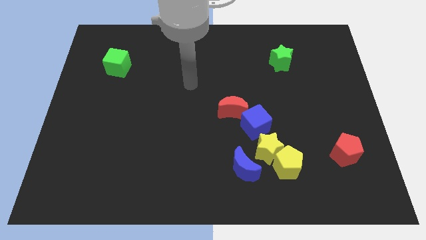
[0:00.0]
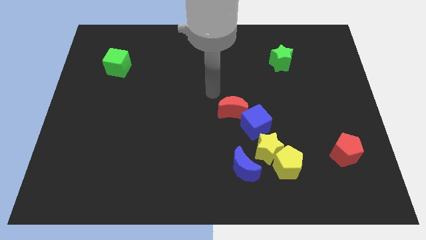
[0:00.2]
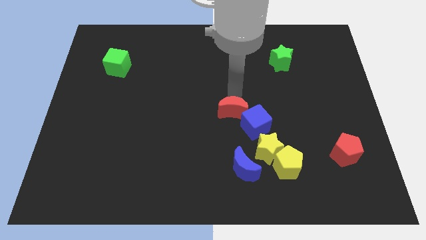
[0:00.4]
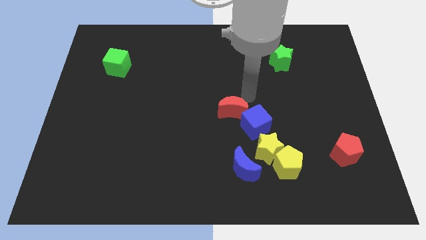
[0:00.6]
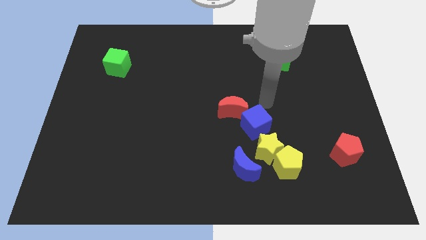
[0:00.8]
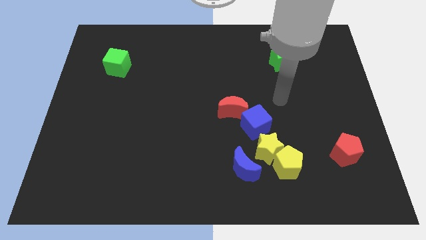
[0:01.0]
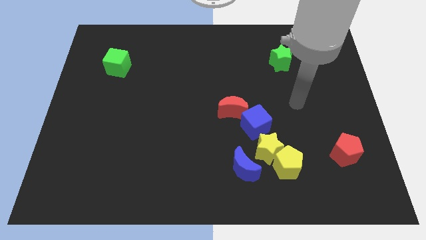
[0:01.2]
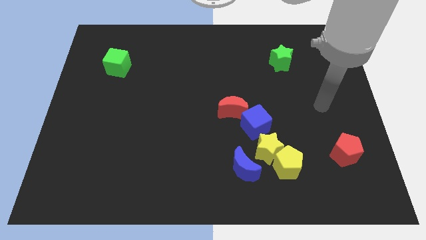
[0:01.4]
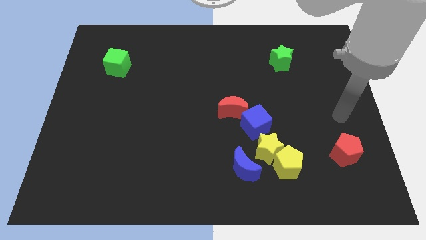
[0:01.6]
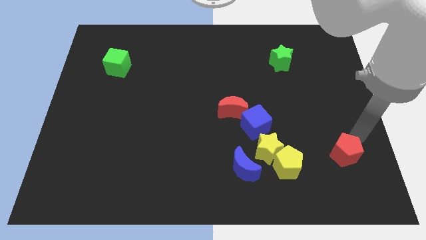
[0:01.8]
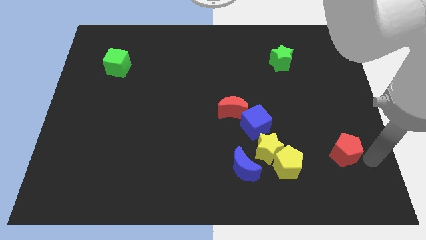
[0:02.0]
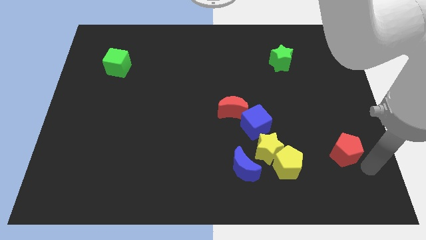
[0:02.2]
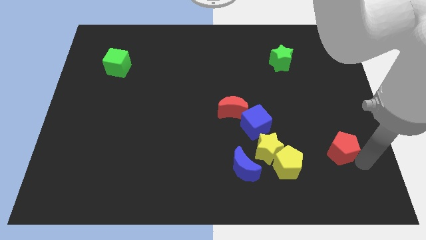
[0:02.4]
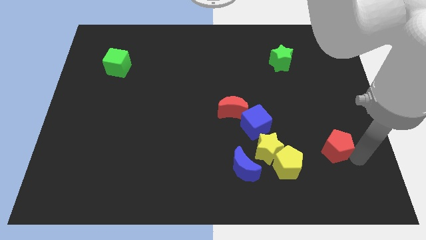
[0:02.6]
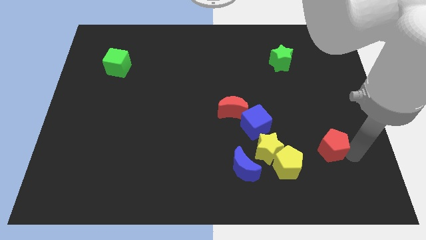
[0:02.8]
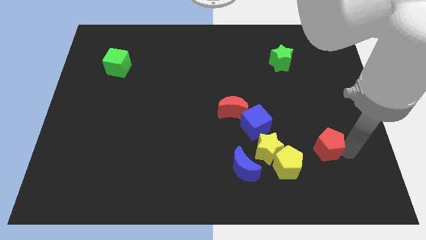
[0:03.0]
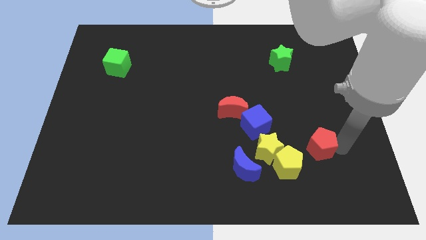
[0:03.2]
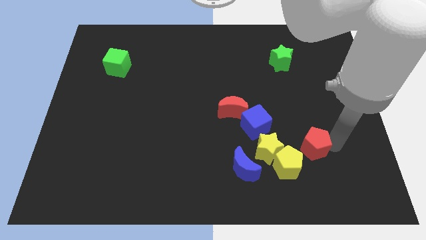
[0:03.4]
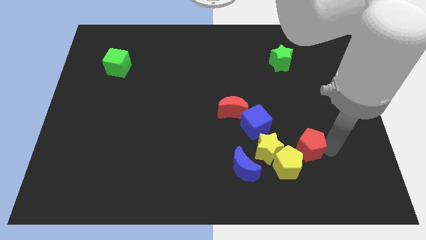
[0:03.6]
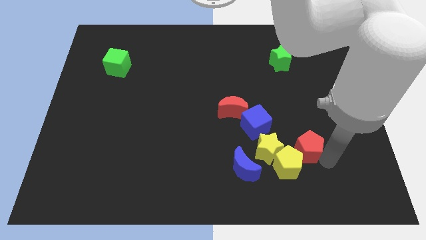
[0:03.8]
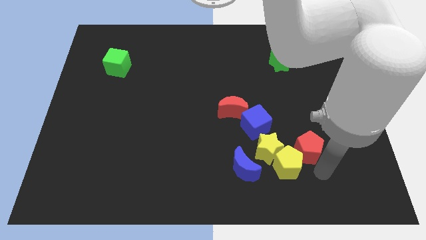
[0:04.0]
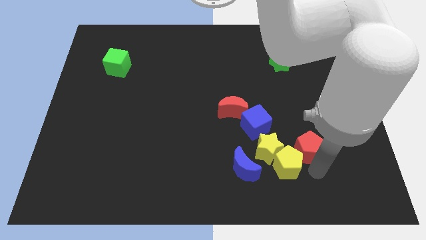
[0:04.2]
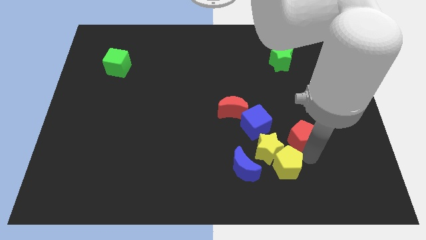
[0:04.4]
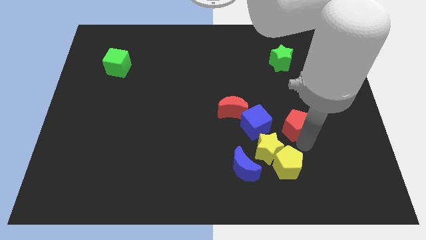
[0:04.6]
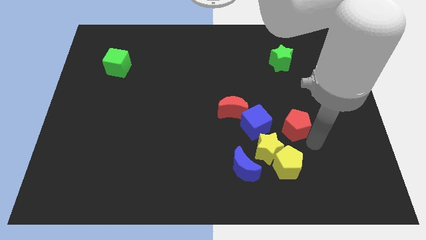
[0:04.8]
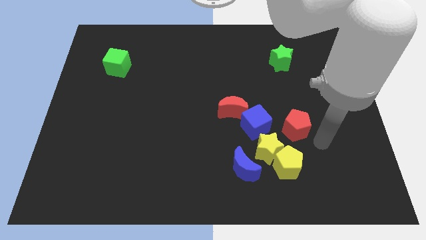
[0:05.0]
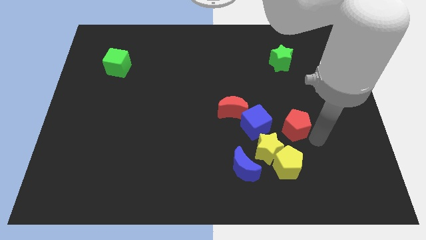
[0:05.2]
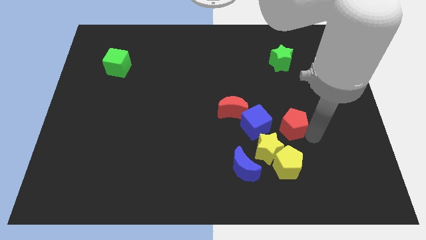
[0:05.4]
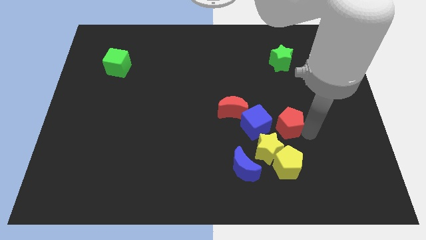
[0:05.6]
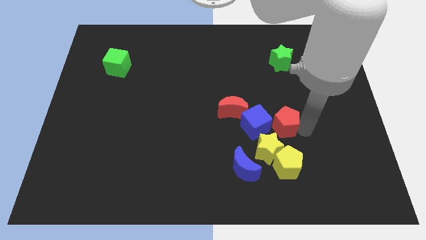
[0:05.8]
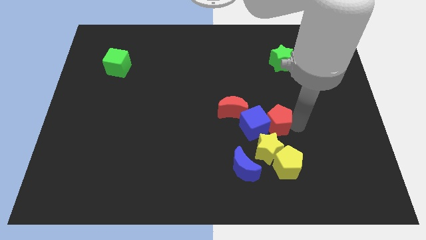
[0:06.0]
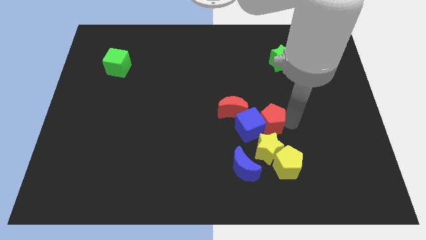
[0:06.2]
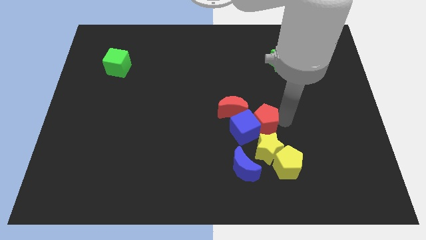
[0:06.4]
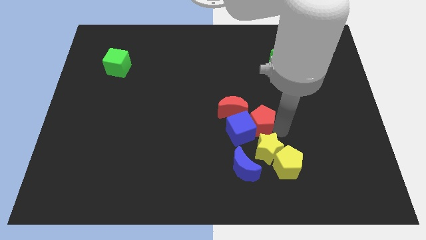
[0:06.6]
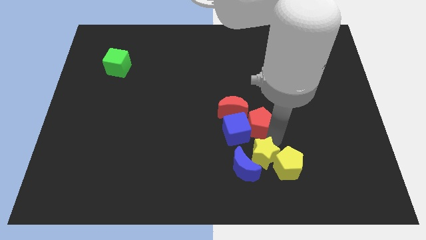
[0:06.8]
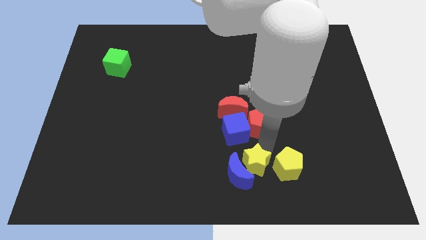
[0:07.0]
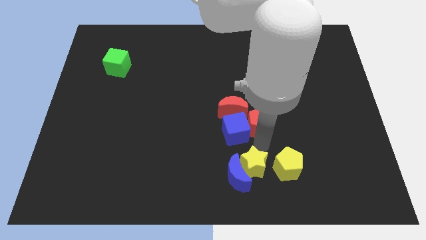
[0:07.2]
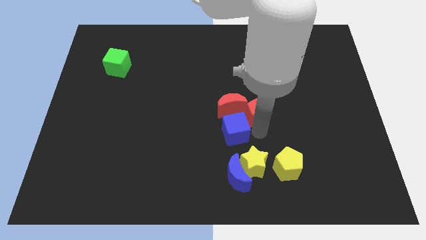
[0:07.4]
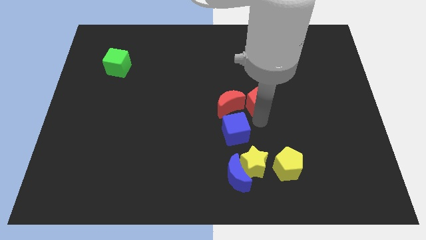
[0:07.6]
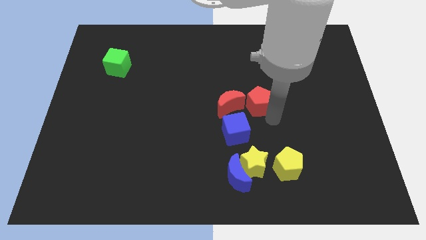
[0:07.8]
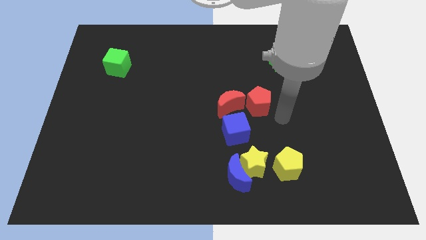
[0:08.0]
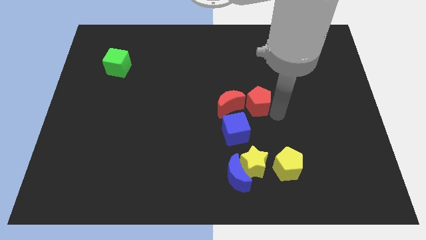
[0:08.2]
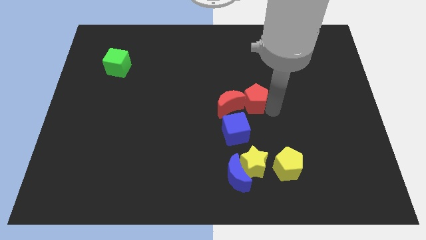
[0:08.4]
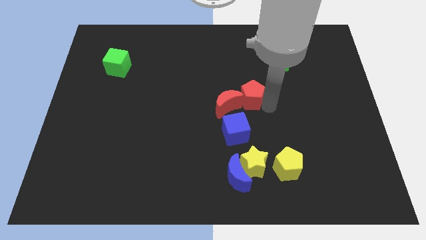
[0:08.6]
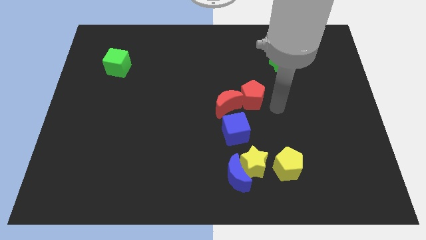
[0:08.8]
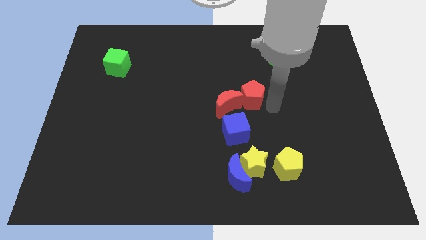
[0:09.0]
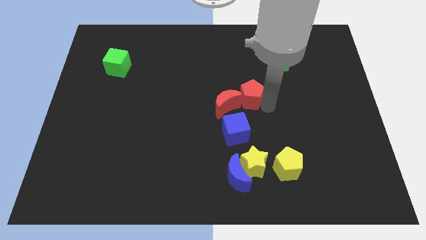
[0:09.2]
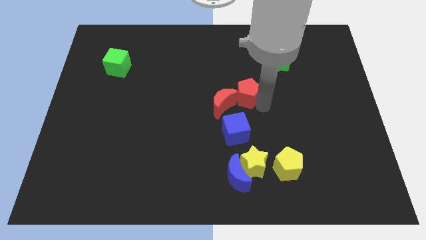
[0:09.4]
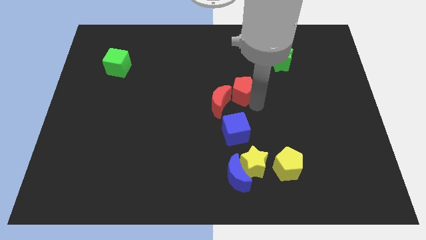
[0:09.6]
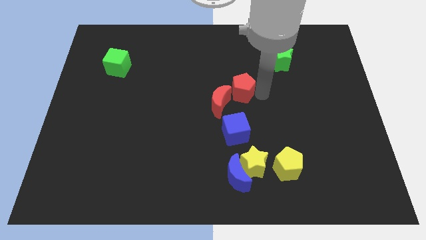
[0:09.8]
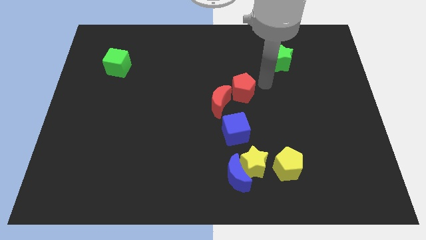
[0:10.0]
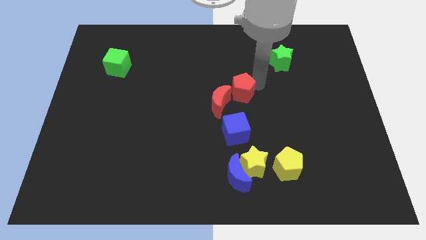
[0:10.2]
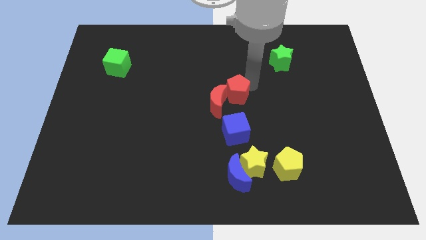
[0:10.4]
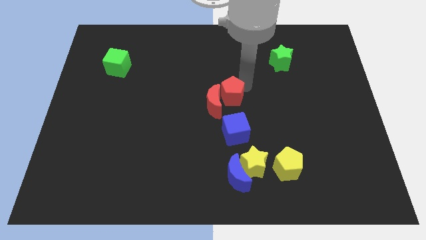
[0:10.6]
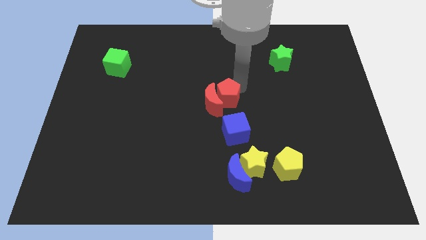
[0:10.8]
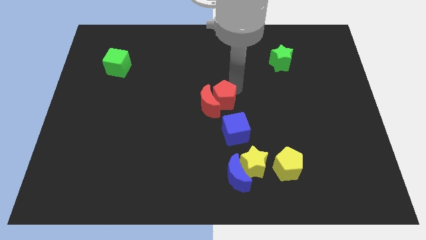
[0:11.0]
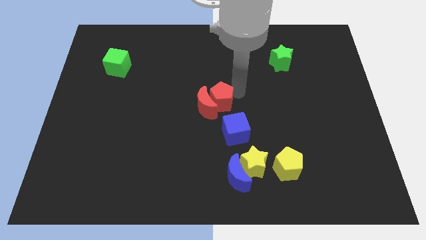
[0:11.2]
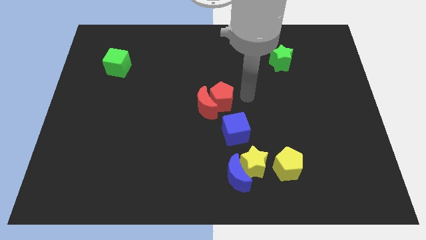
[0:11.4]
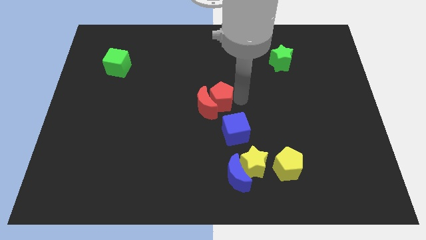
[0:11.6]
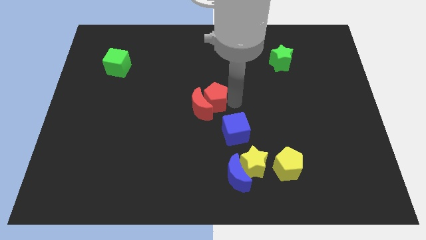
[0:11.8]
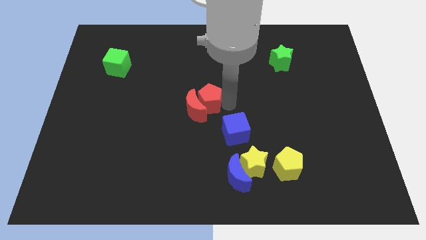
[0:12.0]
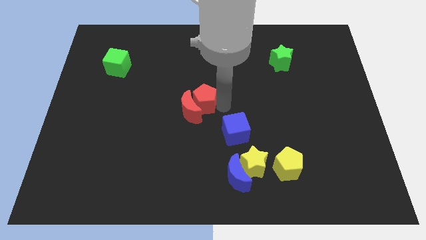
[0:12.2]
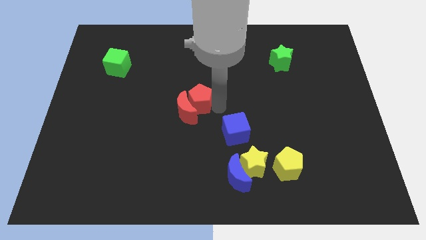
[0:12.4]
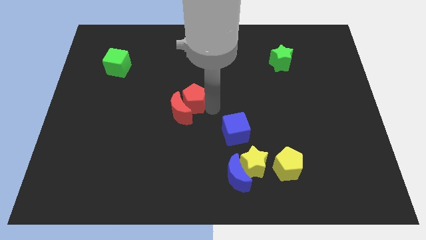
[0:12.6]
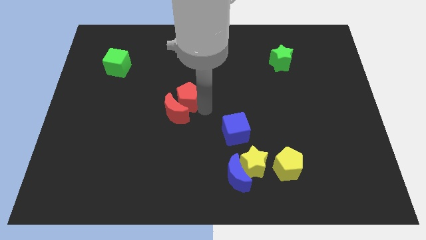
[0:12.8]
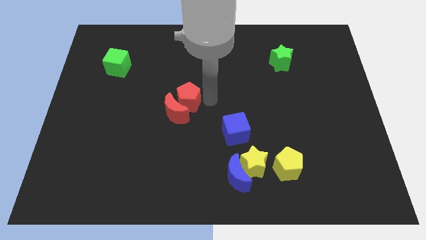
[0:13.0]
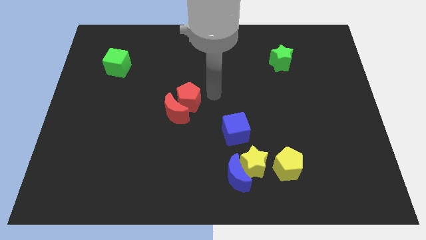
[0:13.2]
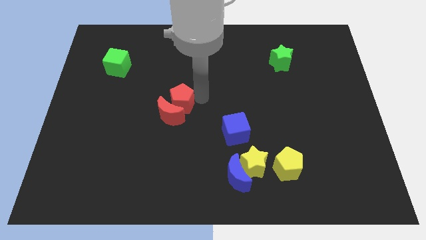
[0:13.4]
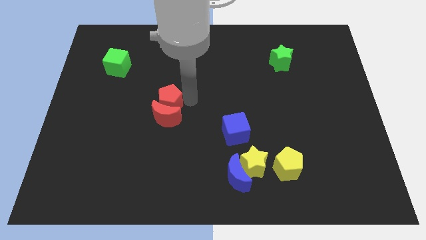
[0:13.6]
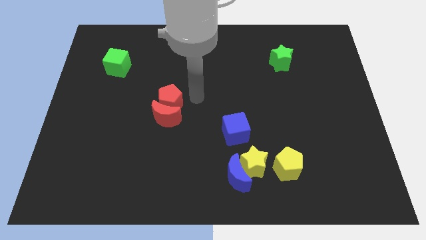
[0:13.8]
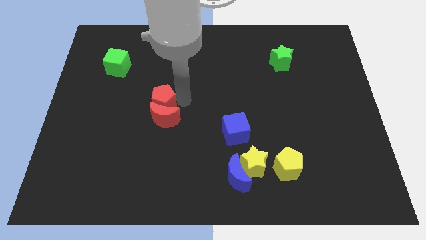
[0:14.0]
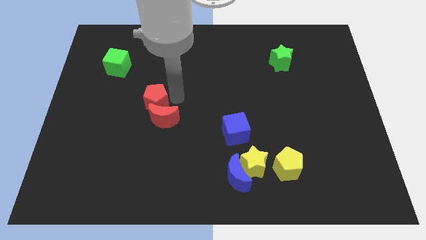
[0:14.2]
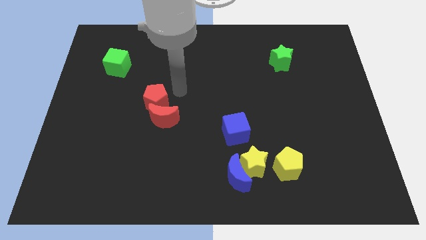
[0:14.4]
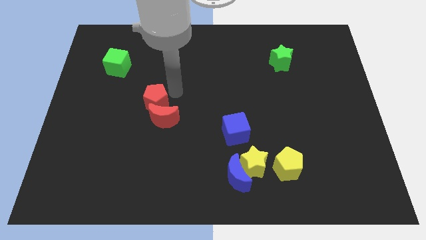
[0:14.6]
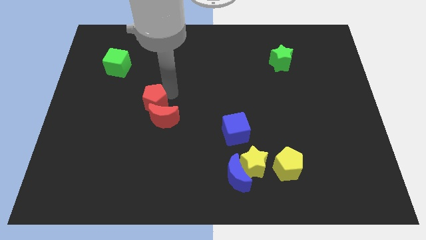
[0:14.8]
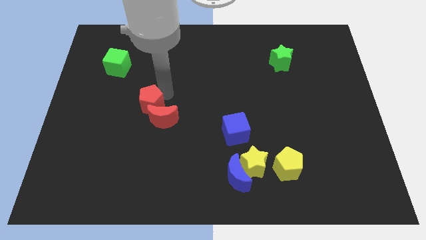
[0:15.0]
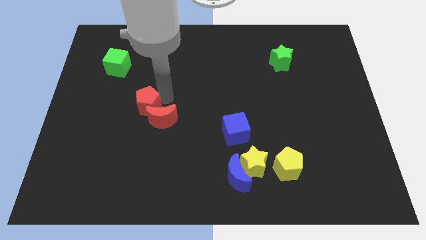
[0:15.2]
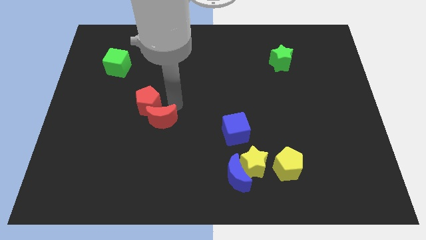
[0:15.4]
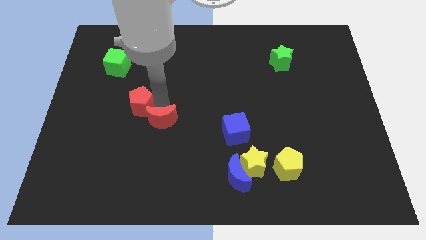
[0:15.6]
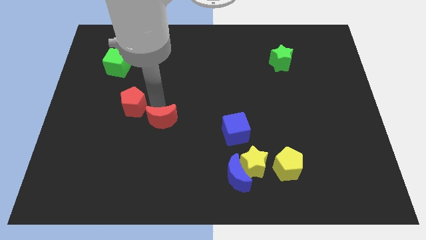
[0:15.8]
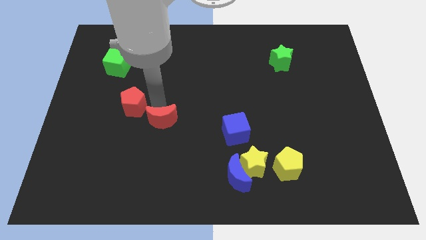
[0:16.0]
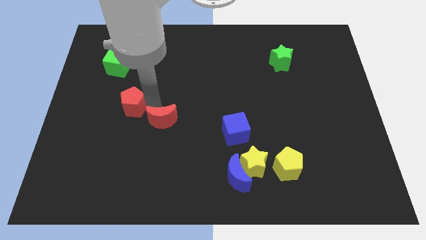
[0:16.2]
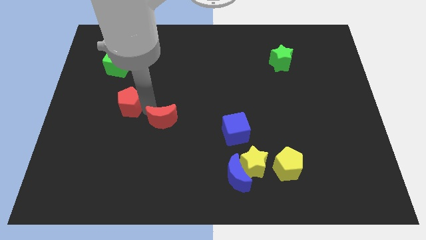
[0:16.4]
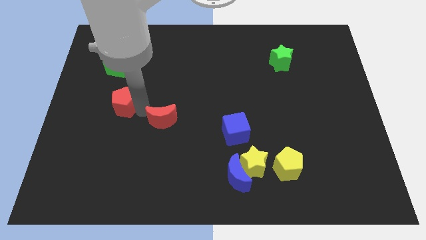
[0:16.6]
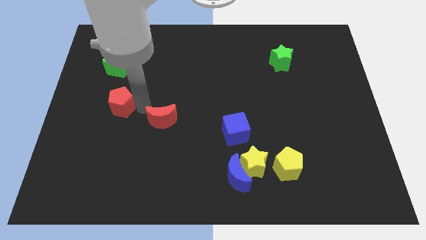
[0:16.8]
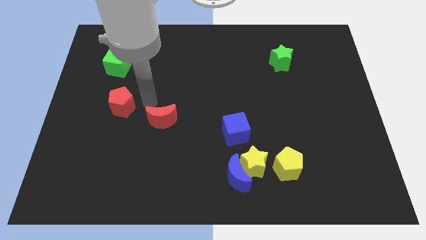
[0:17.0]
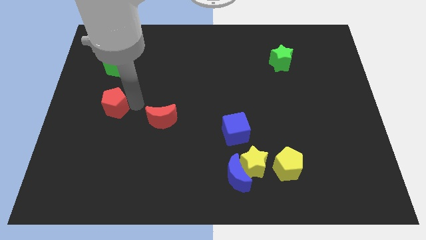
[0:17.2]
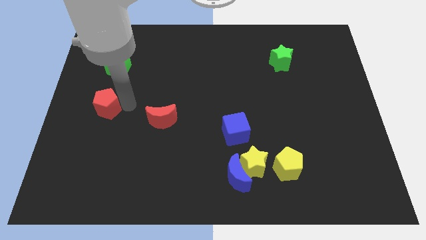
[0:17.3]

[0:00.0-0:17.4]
move the red pentagon to the left side of the board
